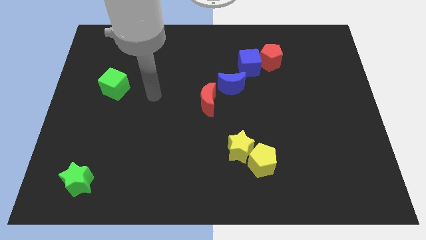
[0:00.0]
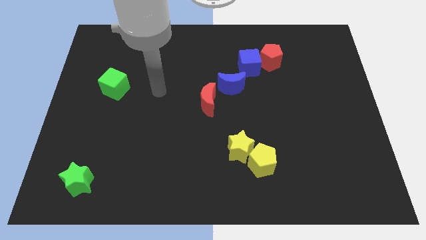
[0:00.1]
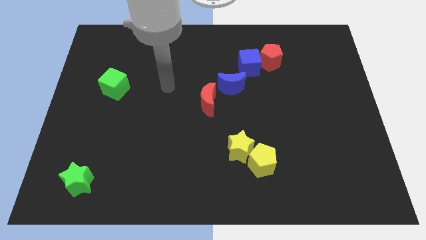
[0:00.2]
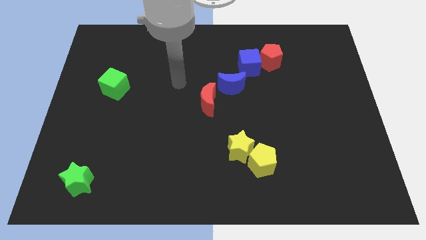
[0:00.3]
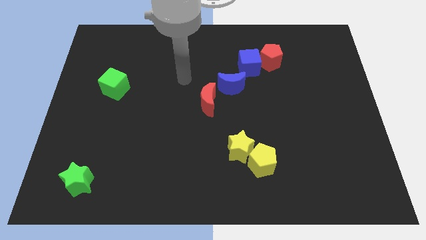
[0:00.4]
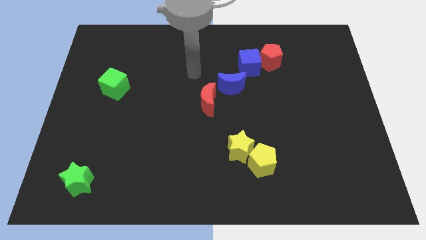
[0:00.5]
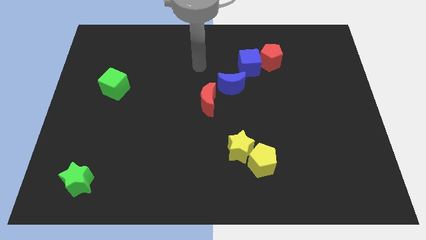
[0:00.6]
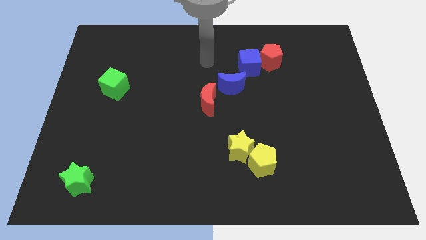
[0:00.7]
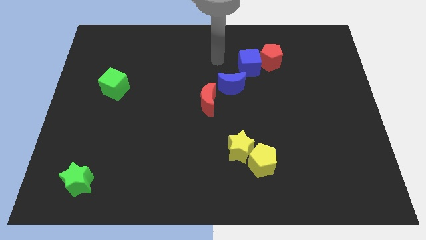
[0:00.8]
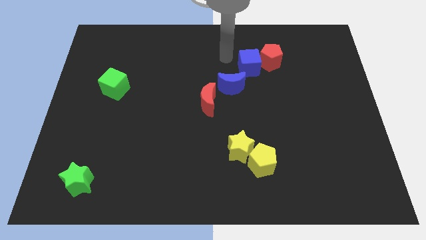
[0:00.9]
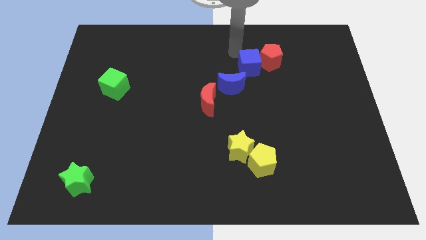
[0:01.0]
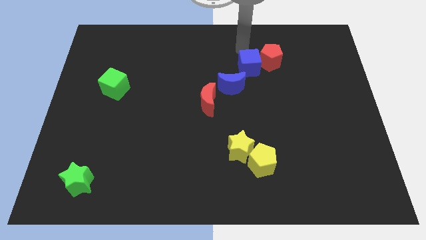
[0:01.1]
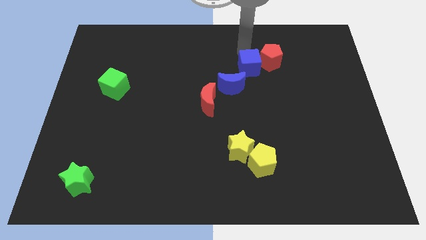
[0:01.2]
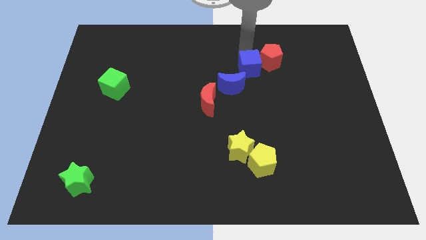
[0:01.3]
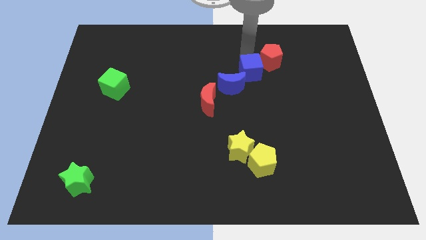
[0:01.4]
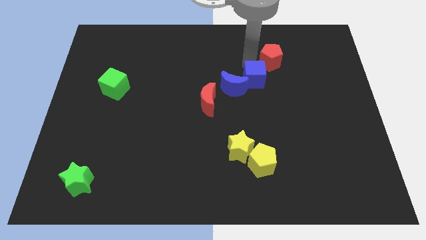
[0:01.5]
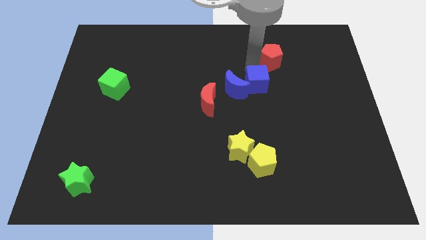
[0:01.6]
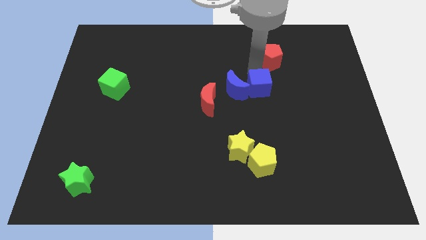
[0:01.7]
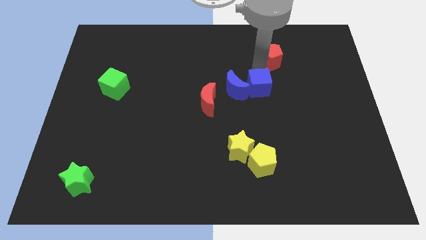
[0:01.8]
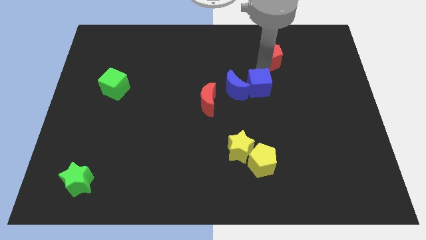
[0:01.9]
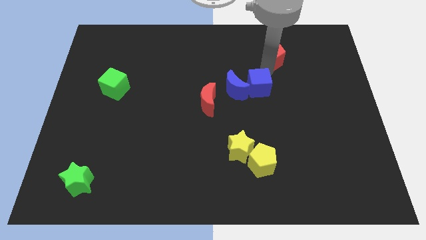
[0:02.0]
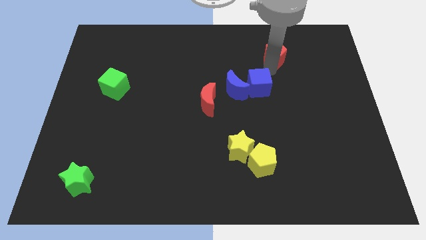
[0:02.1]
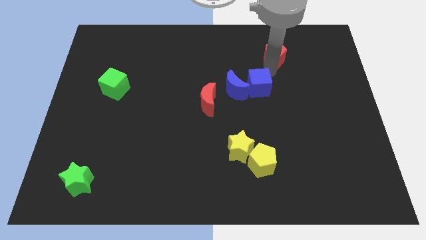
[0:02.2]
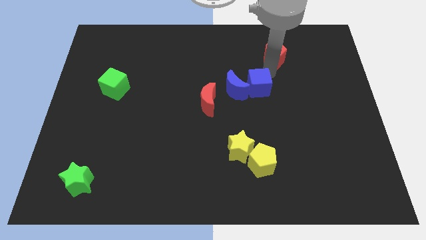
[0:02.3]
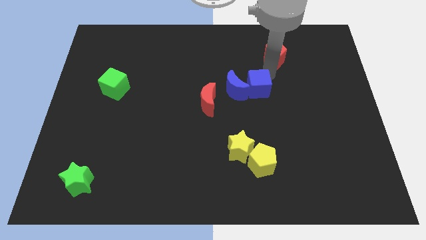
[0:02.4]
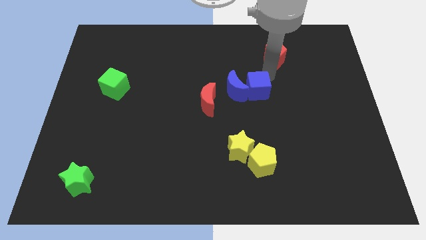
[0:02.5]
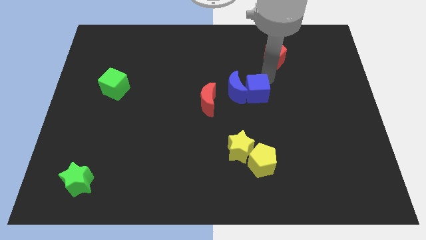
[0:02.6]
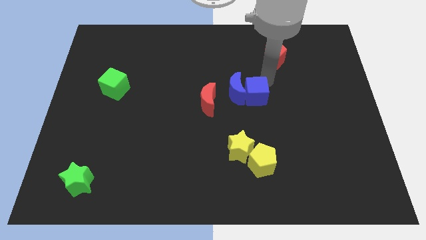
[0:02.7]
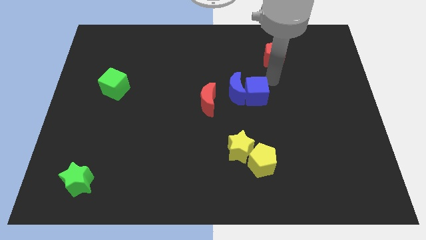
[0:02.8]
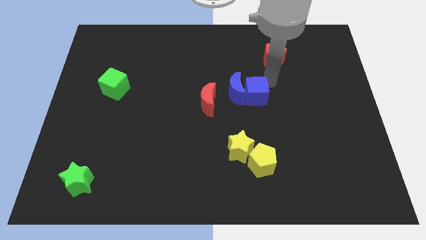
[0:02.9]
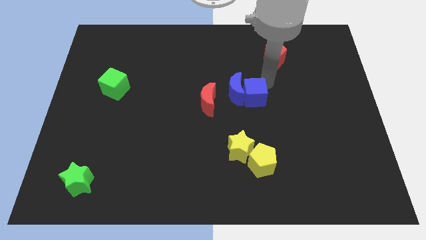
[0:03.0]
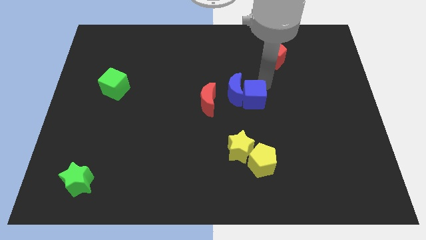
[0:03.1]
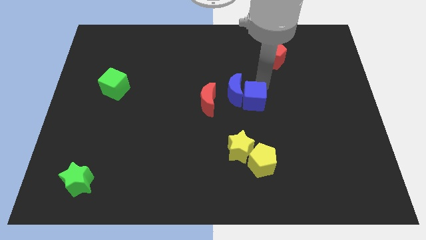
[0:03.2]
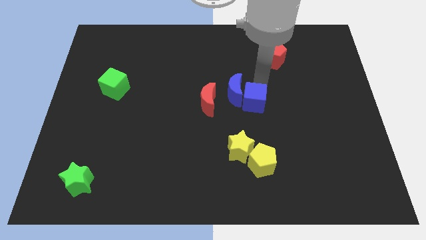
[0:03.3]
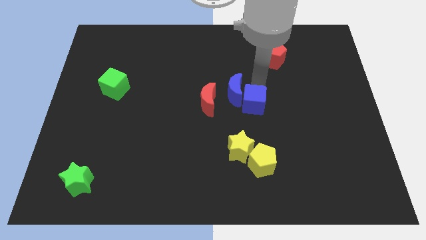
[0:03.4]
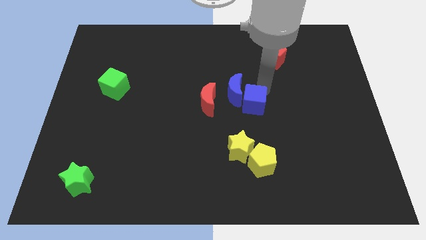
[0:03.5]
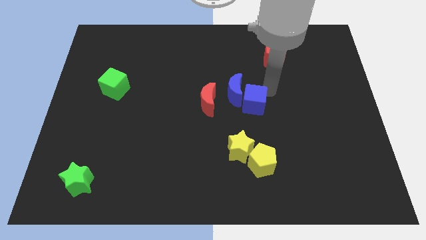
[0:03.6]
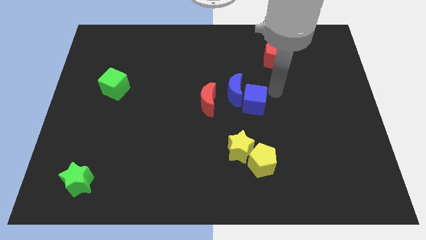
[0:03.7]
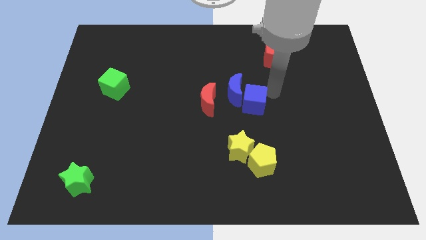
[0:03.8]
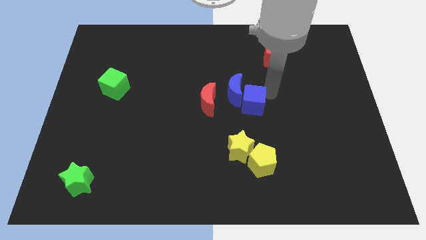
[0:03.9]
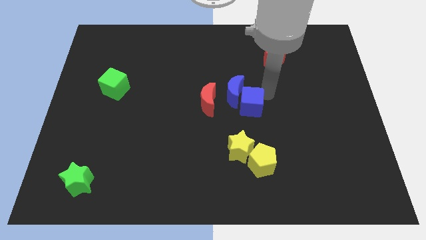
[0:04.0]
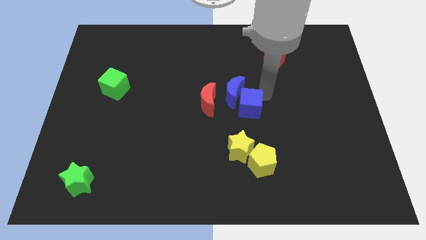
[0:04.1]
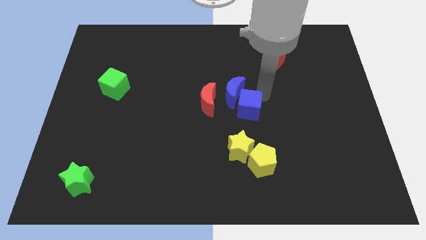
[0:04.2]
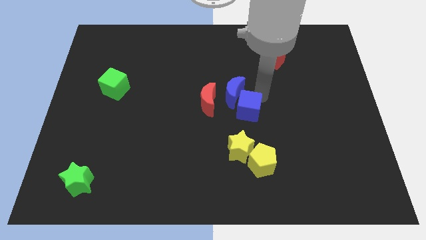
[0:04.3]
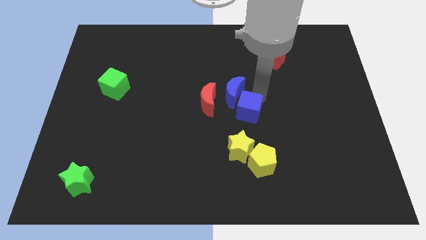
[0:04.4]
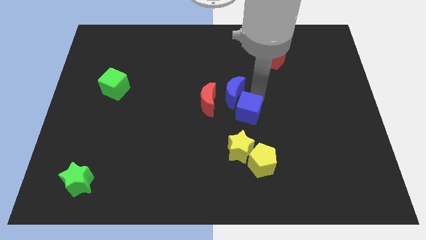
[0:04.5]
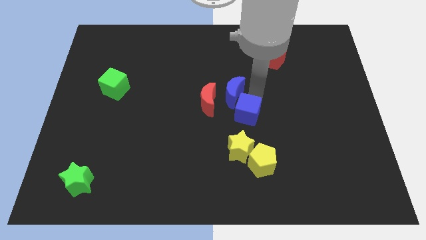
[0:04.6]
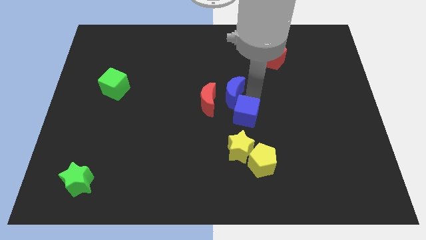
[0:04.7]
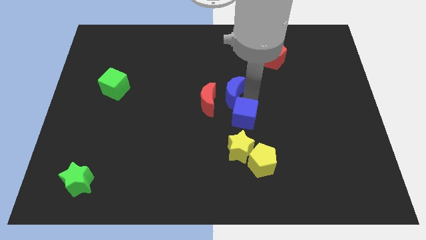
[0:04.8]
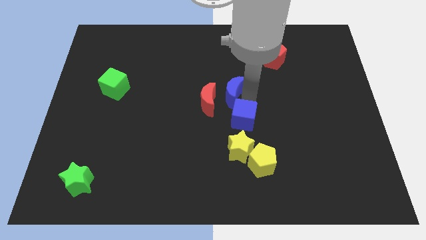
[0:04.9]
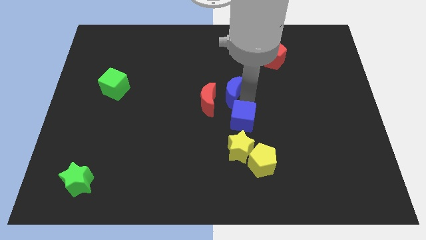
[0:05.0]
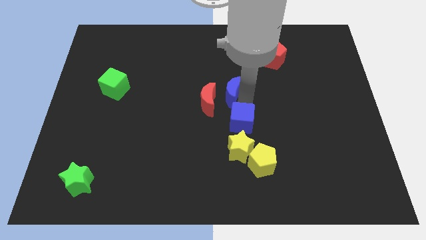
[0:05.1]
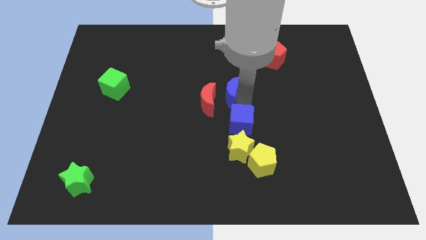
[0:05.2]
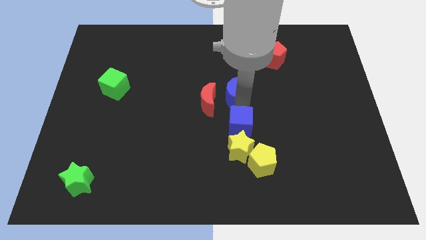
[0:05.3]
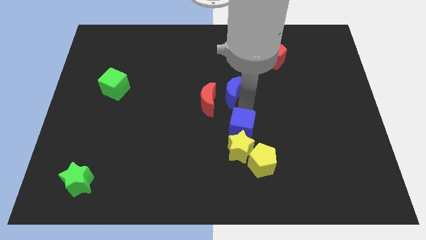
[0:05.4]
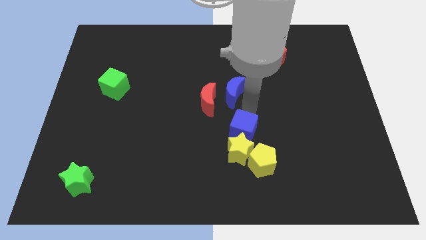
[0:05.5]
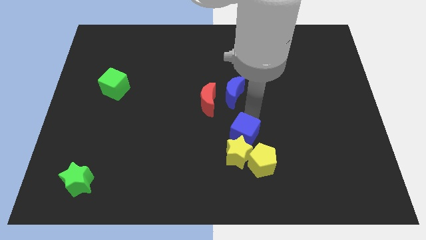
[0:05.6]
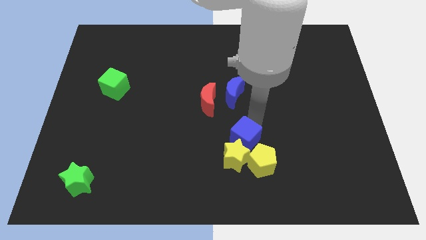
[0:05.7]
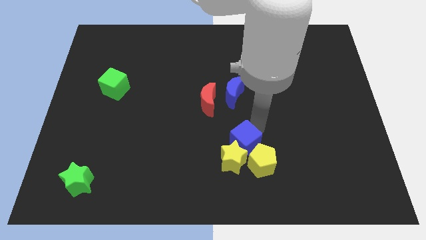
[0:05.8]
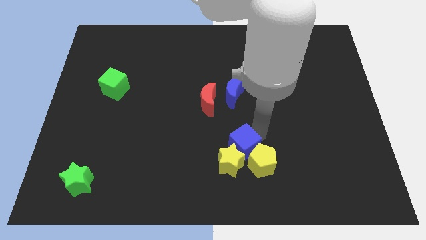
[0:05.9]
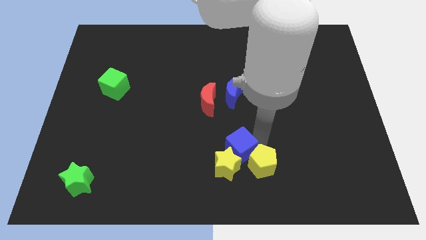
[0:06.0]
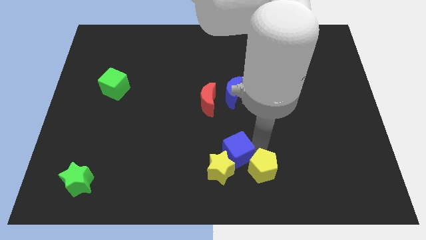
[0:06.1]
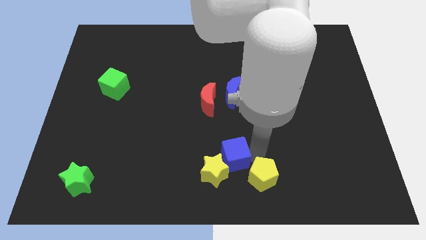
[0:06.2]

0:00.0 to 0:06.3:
move the blue cube to the bottom
